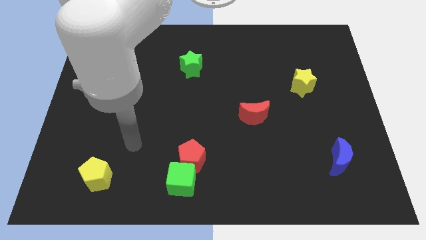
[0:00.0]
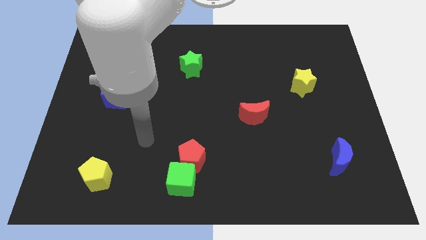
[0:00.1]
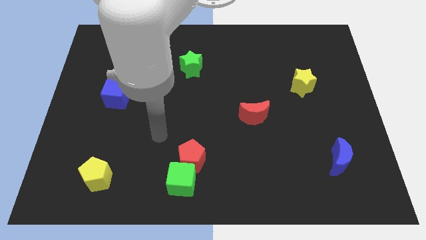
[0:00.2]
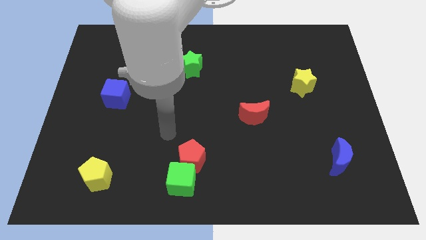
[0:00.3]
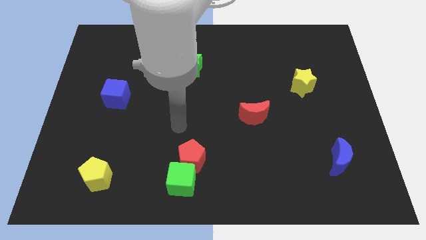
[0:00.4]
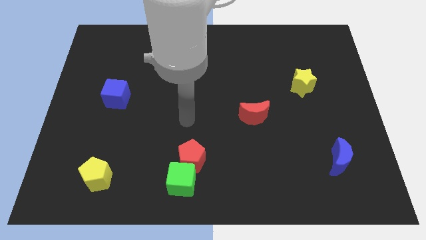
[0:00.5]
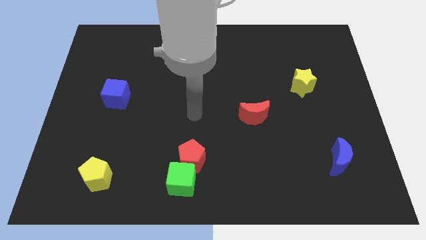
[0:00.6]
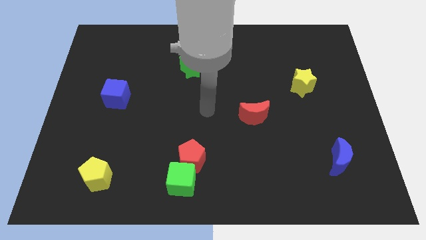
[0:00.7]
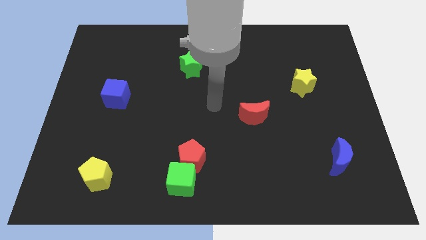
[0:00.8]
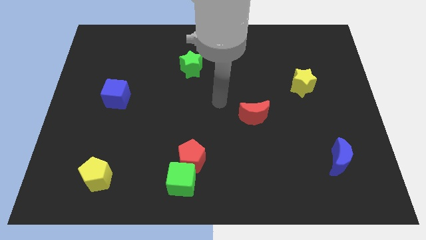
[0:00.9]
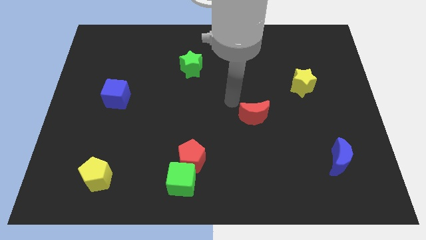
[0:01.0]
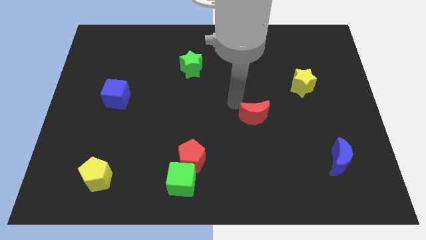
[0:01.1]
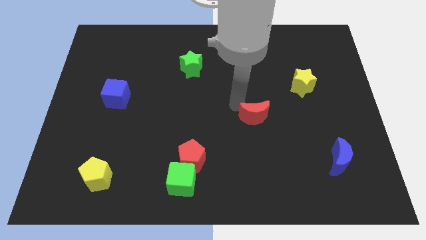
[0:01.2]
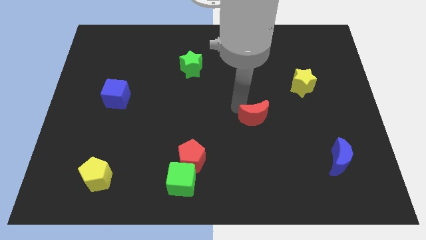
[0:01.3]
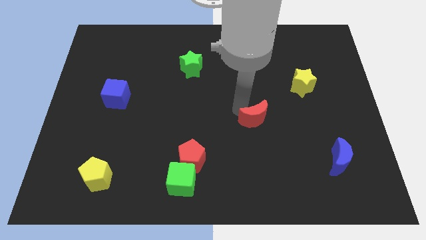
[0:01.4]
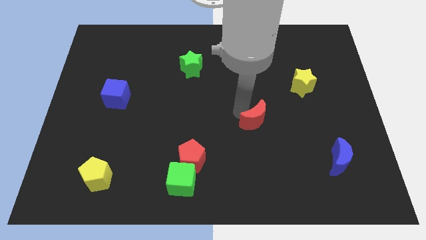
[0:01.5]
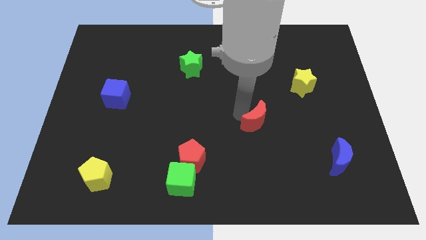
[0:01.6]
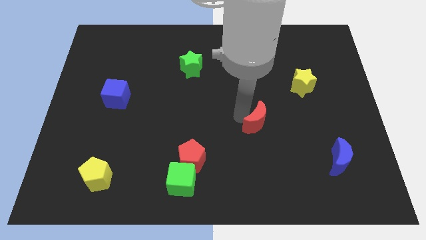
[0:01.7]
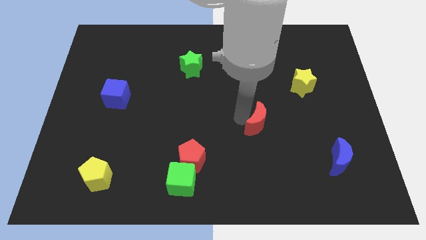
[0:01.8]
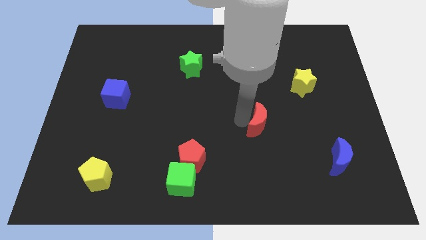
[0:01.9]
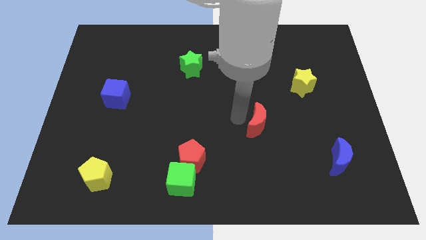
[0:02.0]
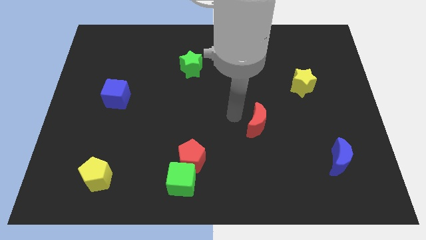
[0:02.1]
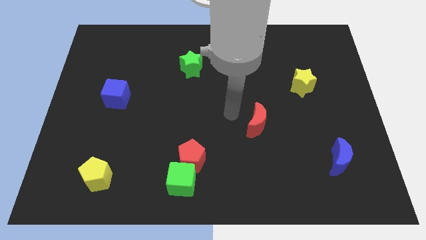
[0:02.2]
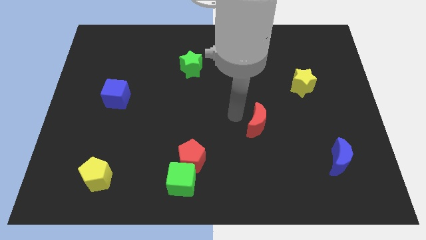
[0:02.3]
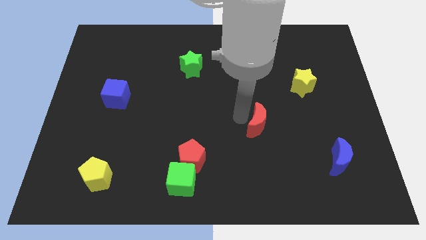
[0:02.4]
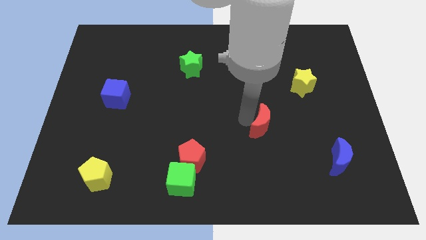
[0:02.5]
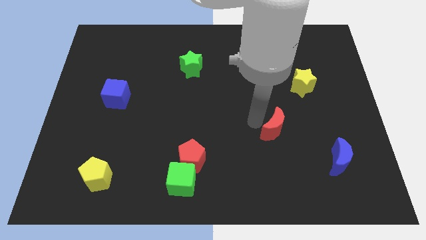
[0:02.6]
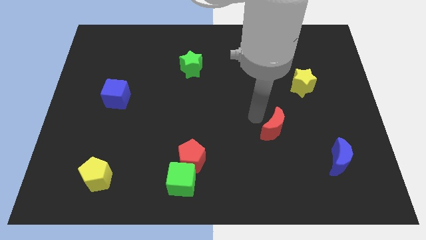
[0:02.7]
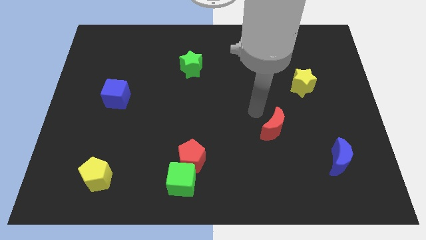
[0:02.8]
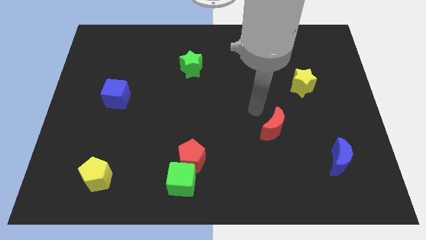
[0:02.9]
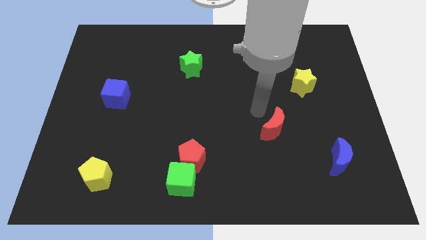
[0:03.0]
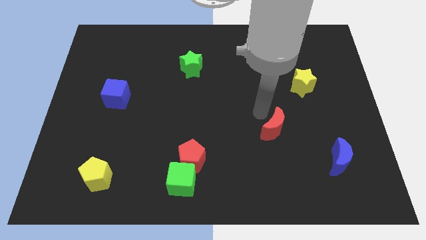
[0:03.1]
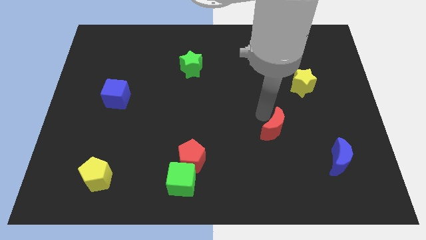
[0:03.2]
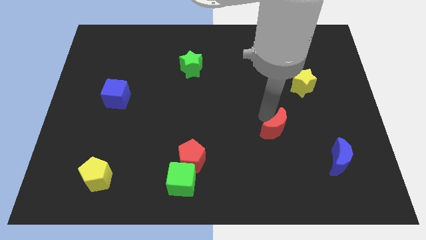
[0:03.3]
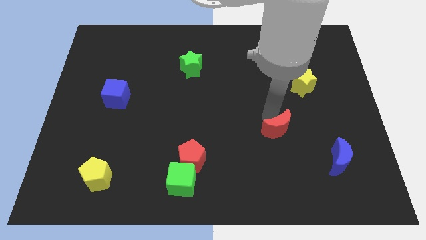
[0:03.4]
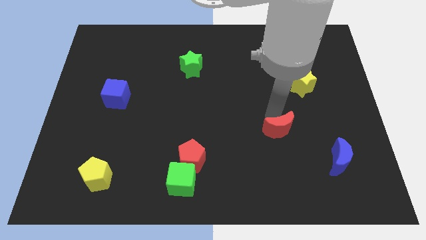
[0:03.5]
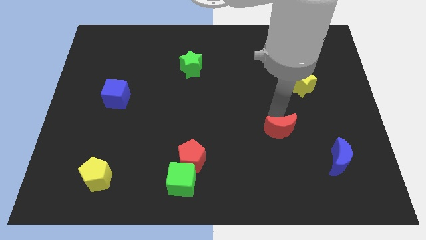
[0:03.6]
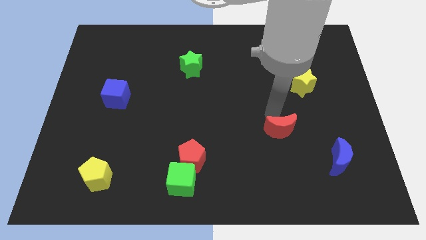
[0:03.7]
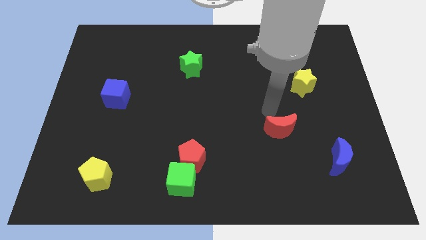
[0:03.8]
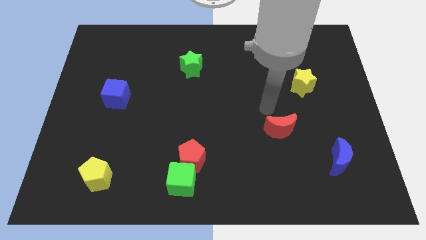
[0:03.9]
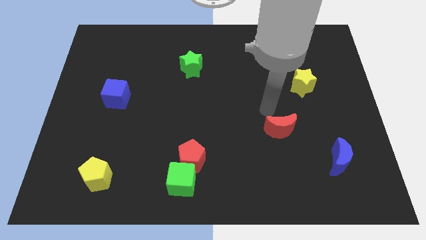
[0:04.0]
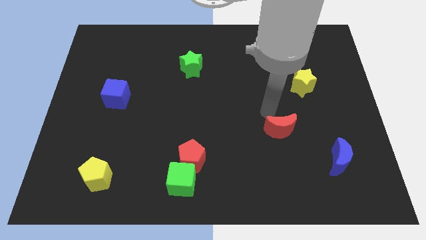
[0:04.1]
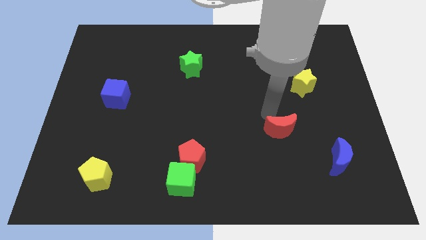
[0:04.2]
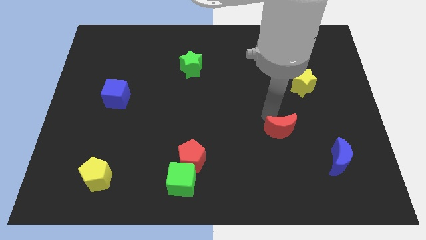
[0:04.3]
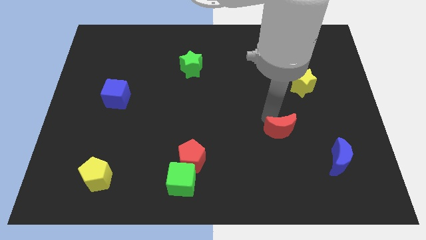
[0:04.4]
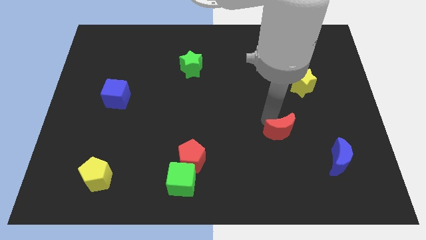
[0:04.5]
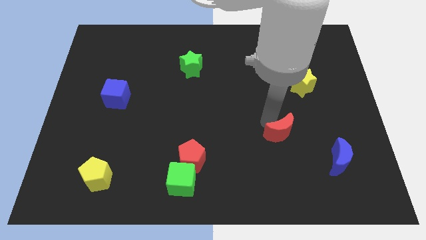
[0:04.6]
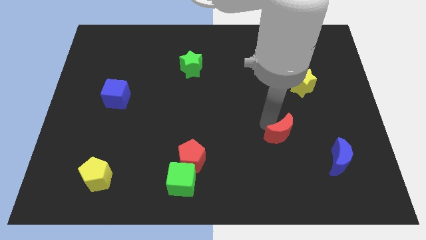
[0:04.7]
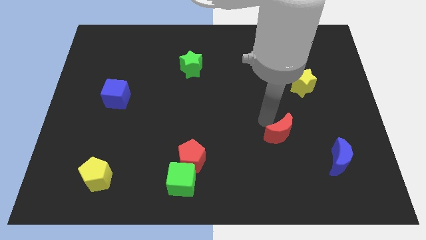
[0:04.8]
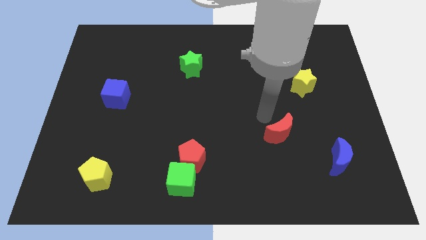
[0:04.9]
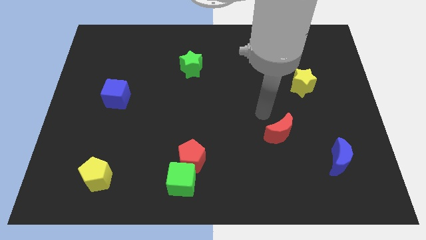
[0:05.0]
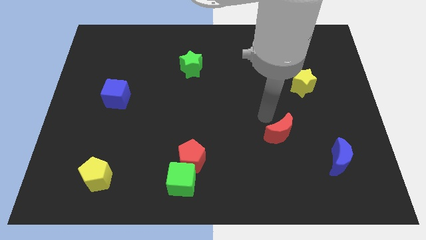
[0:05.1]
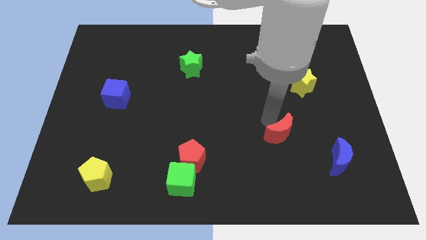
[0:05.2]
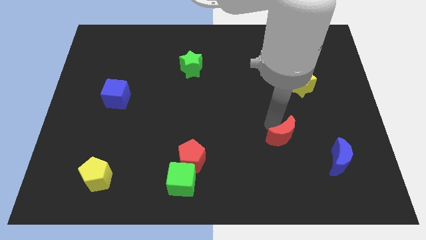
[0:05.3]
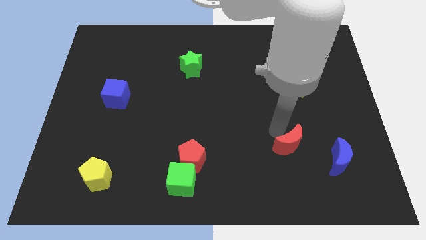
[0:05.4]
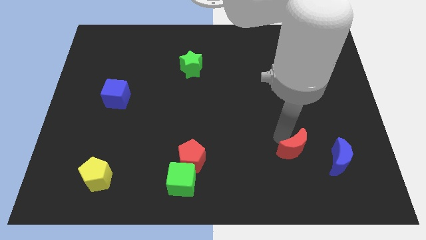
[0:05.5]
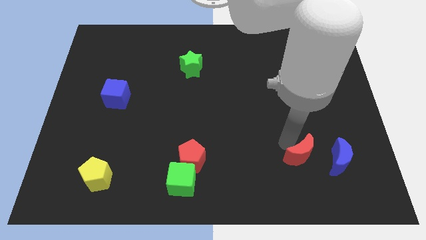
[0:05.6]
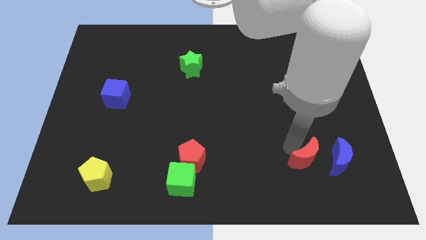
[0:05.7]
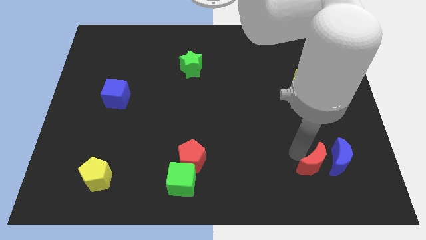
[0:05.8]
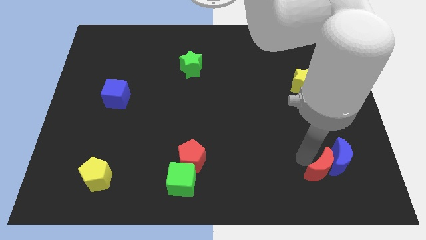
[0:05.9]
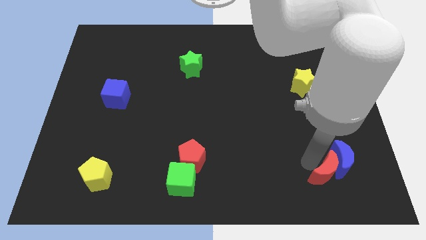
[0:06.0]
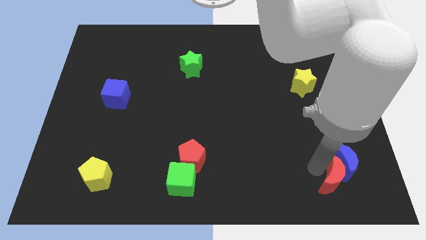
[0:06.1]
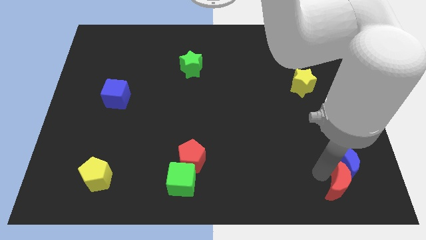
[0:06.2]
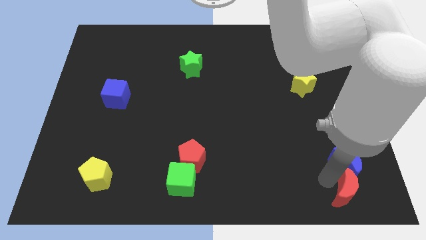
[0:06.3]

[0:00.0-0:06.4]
move the red moon to the bottom right corner
